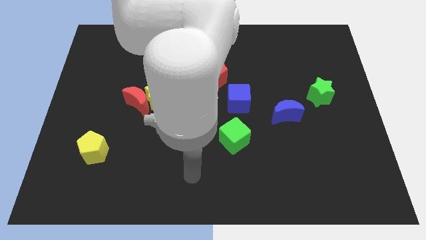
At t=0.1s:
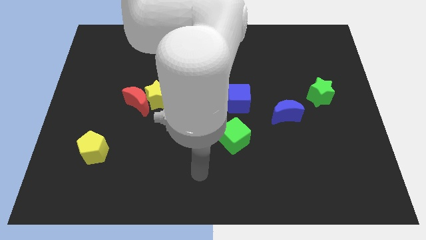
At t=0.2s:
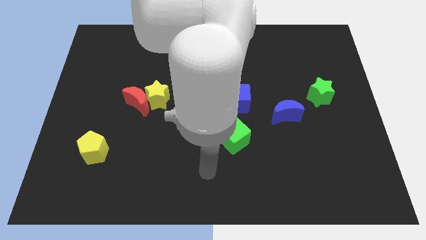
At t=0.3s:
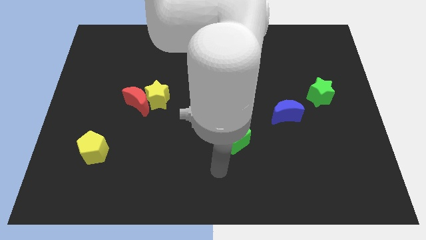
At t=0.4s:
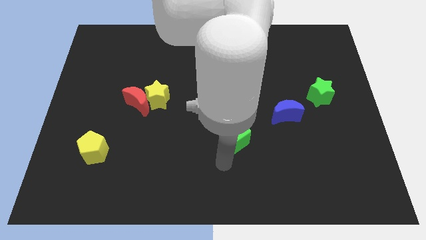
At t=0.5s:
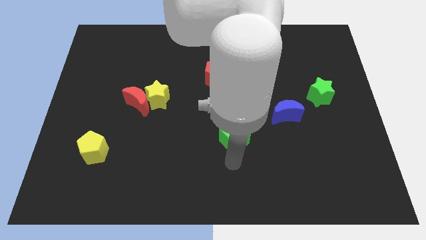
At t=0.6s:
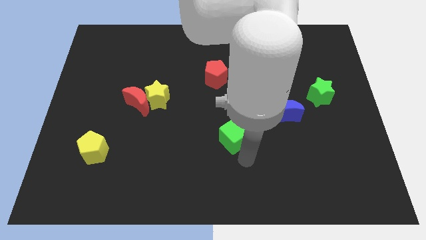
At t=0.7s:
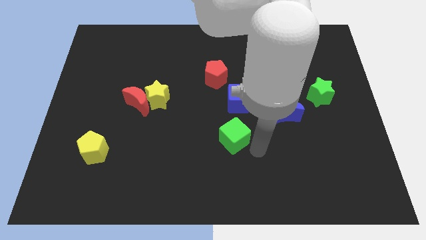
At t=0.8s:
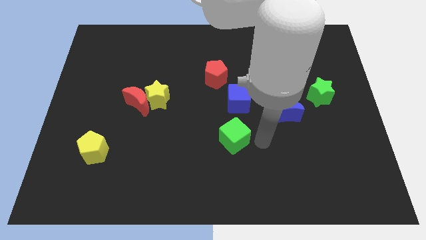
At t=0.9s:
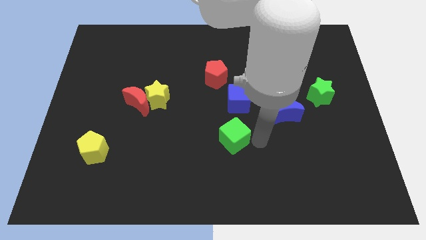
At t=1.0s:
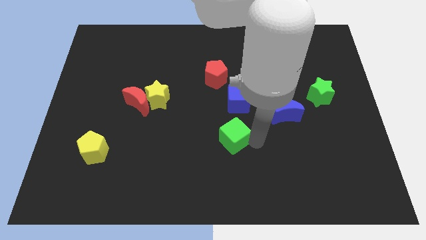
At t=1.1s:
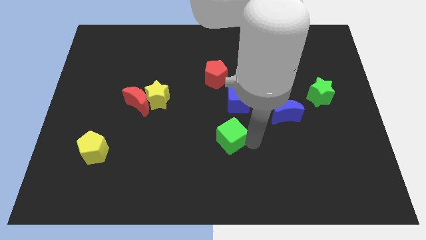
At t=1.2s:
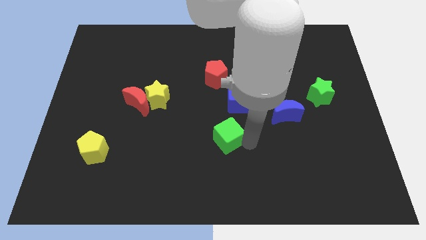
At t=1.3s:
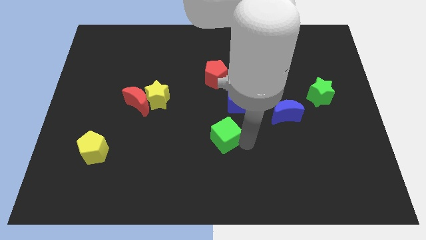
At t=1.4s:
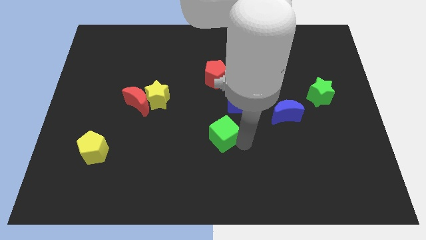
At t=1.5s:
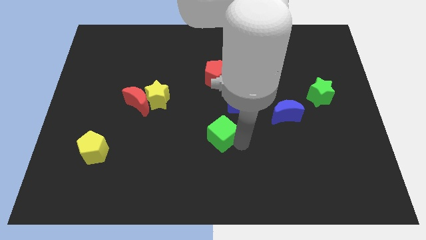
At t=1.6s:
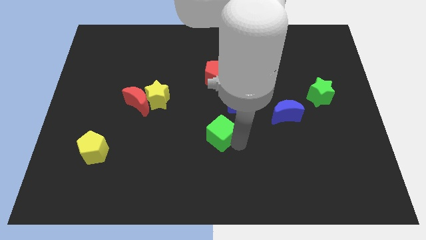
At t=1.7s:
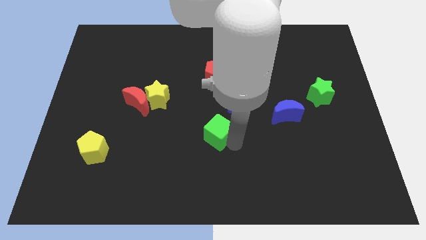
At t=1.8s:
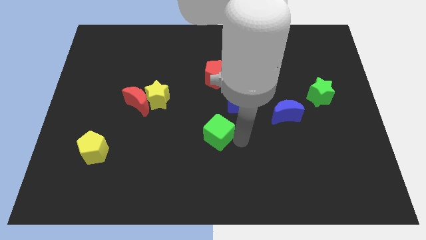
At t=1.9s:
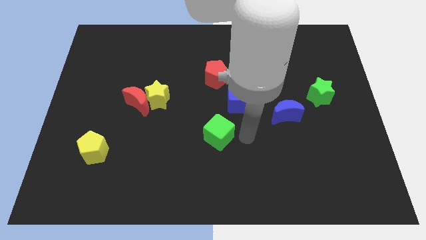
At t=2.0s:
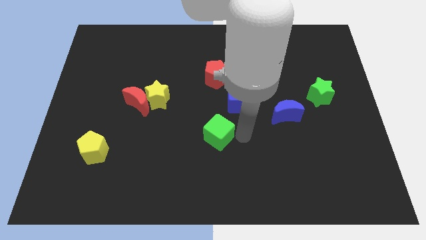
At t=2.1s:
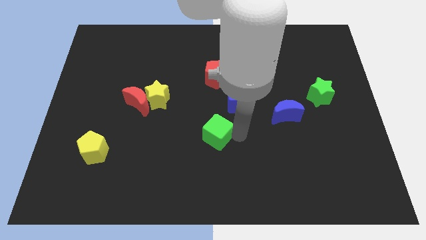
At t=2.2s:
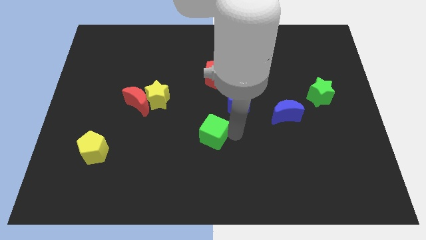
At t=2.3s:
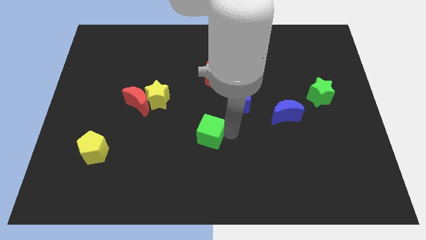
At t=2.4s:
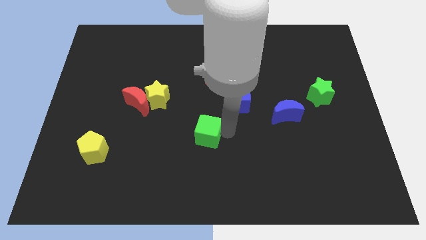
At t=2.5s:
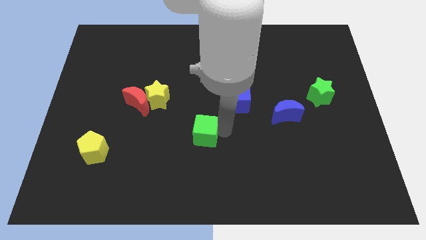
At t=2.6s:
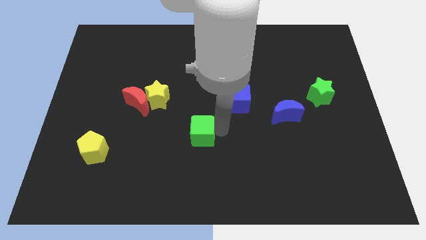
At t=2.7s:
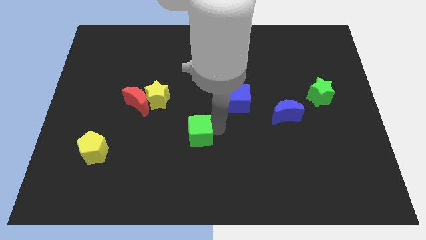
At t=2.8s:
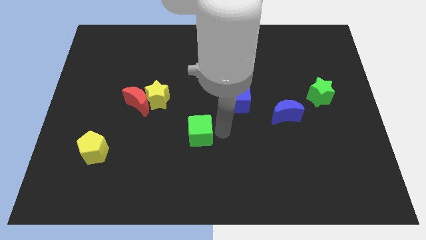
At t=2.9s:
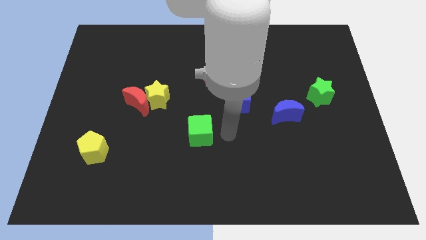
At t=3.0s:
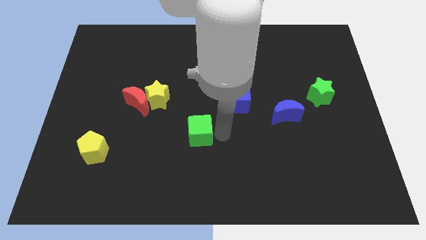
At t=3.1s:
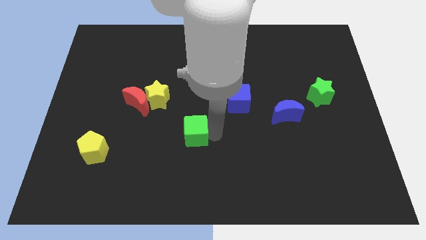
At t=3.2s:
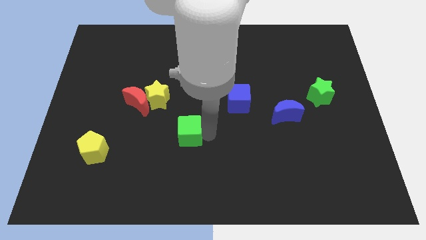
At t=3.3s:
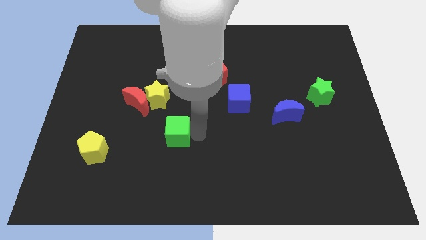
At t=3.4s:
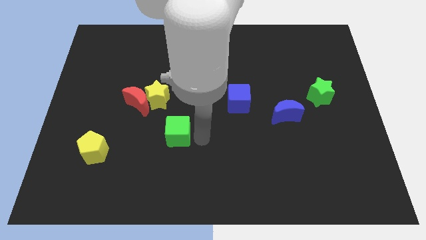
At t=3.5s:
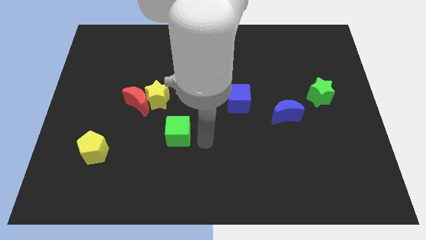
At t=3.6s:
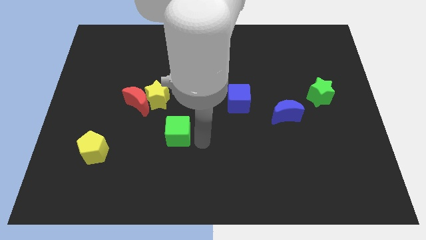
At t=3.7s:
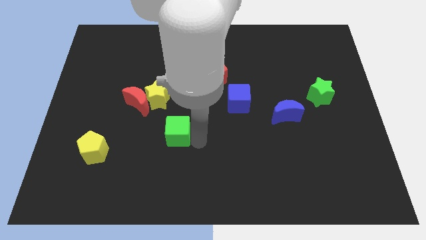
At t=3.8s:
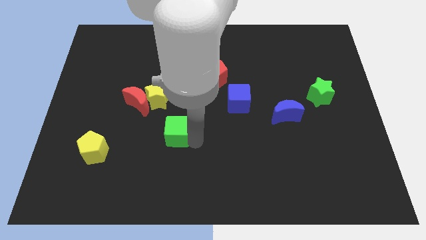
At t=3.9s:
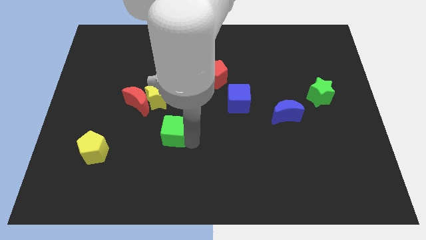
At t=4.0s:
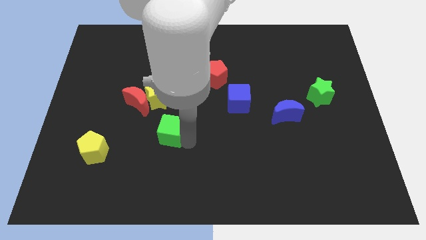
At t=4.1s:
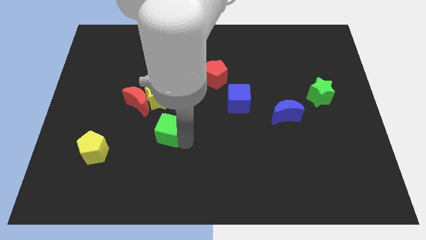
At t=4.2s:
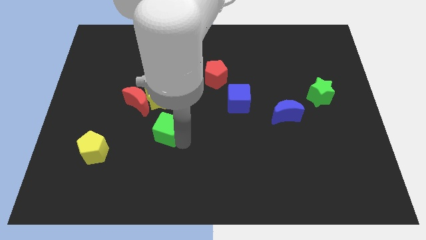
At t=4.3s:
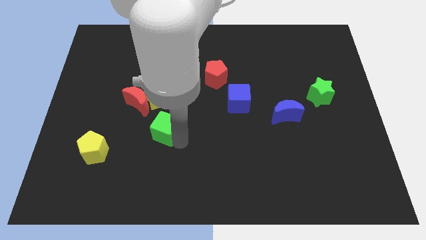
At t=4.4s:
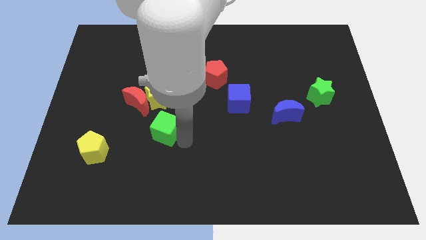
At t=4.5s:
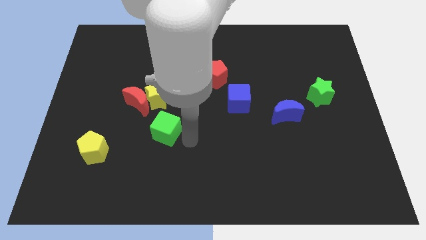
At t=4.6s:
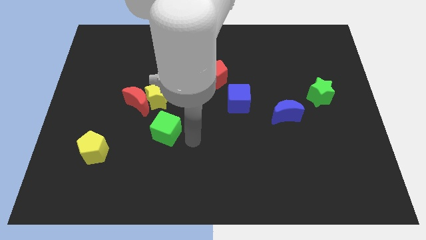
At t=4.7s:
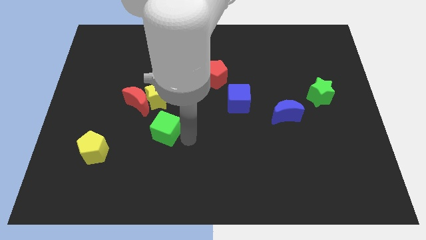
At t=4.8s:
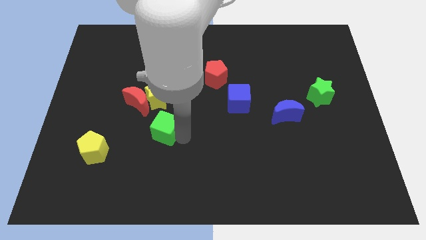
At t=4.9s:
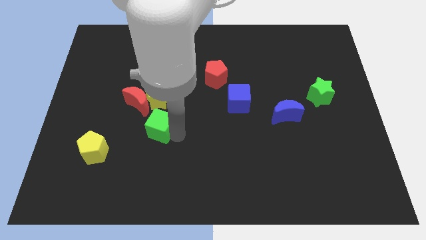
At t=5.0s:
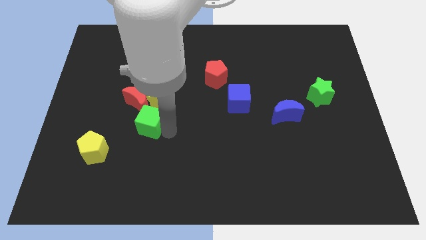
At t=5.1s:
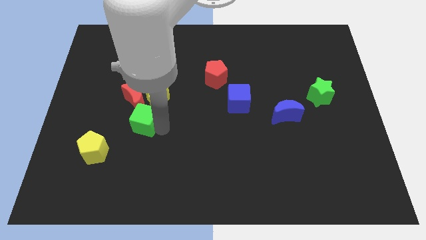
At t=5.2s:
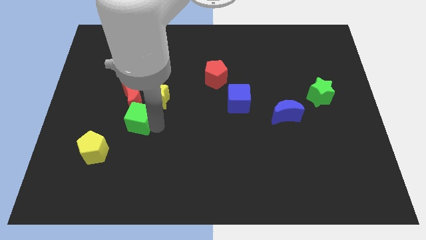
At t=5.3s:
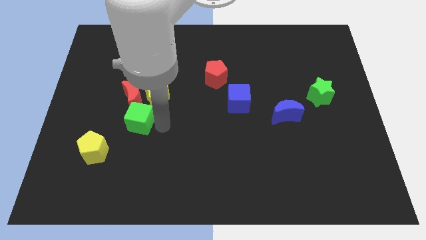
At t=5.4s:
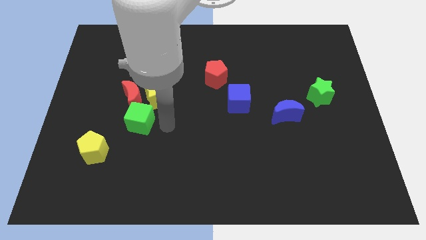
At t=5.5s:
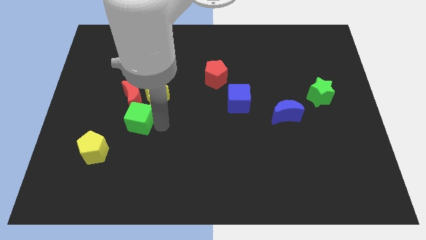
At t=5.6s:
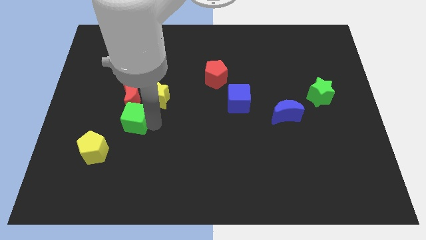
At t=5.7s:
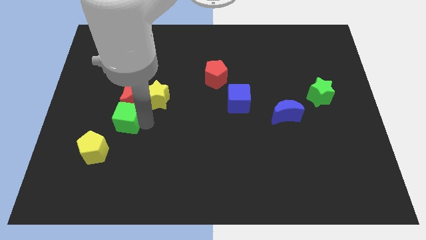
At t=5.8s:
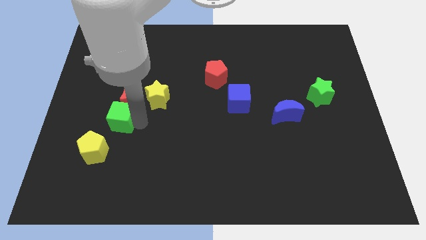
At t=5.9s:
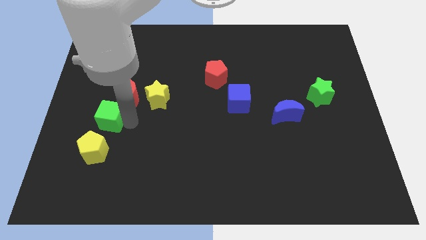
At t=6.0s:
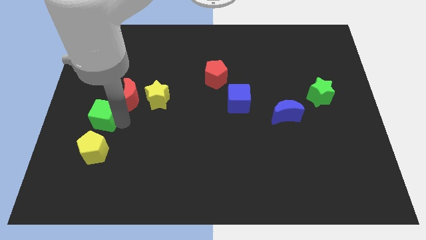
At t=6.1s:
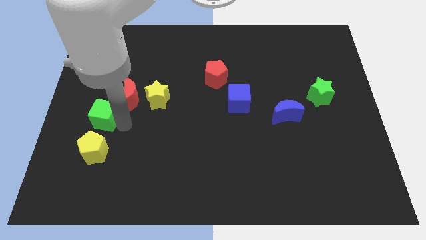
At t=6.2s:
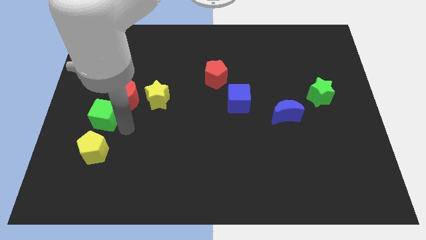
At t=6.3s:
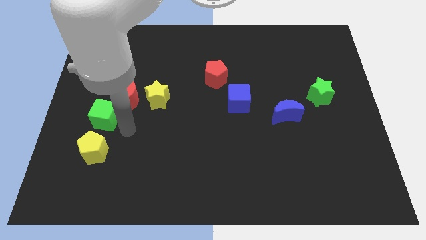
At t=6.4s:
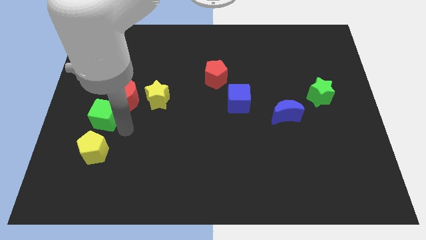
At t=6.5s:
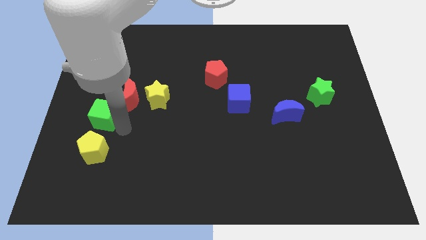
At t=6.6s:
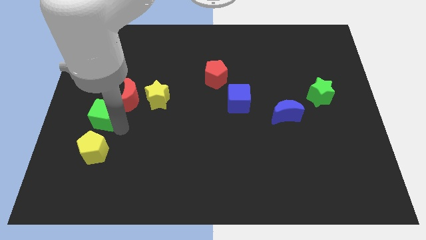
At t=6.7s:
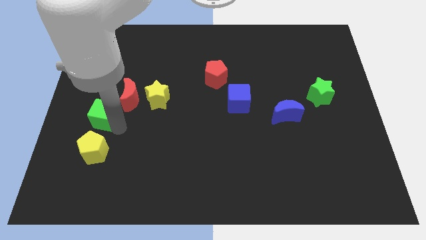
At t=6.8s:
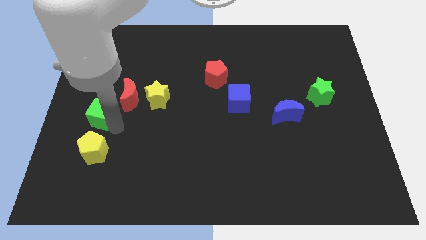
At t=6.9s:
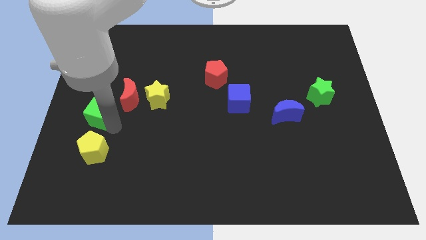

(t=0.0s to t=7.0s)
put the green cube to the center left
